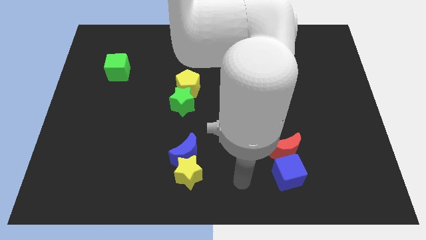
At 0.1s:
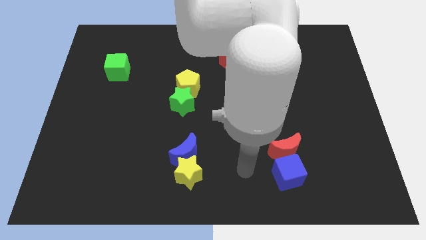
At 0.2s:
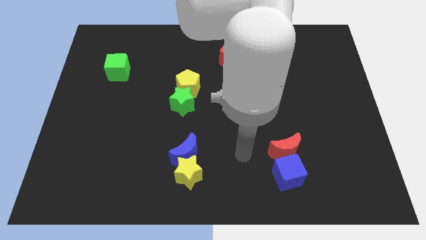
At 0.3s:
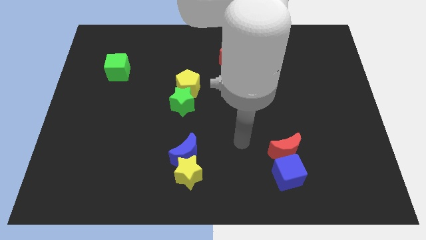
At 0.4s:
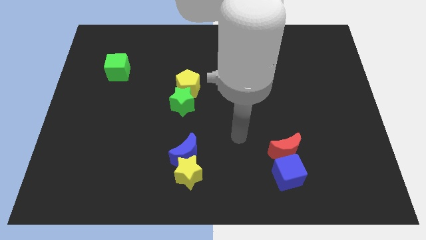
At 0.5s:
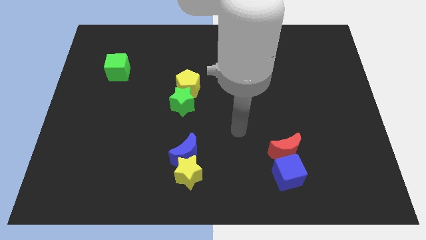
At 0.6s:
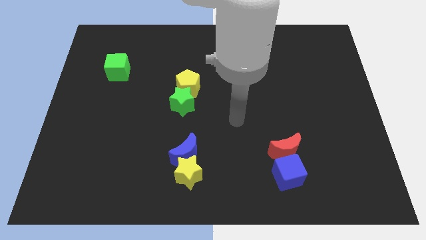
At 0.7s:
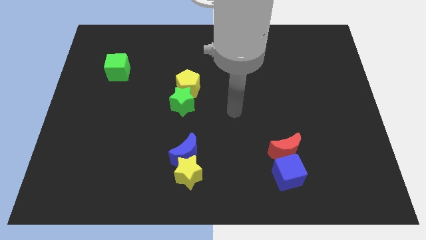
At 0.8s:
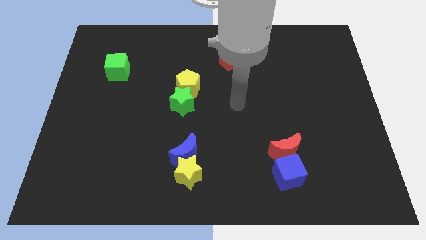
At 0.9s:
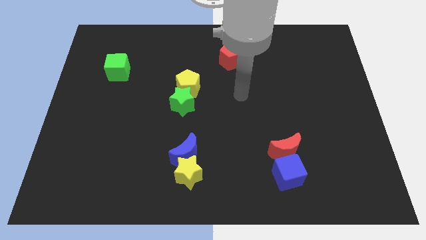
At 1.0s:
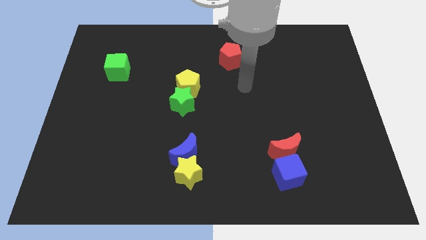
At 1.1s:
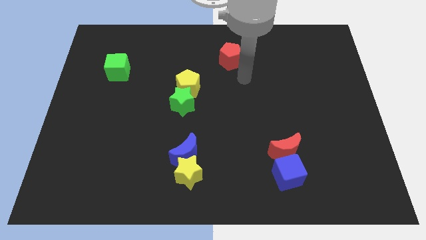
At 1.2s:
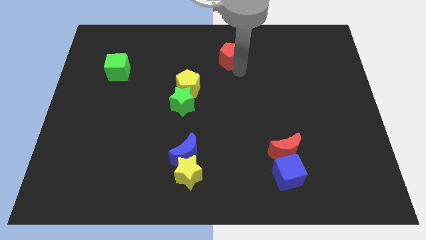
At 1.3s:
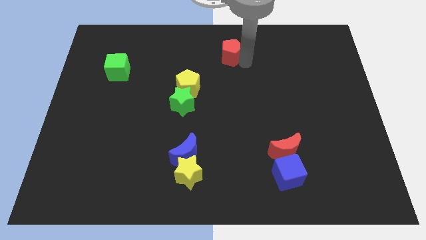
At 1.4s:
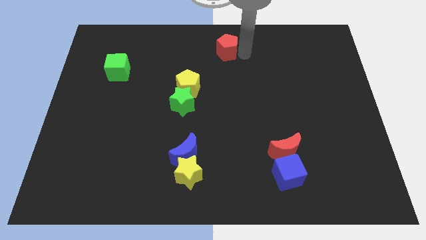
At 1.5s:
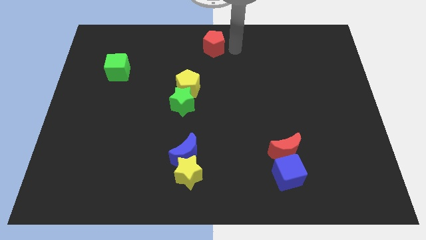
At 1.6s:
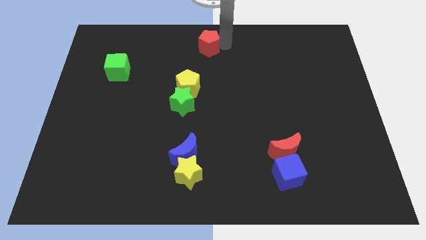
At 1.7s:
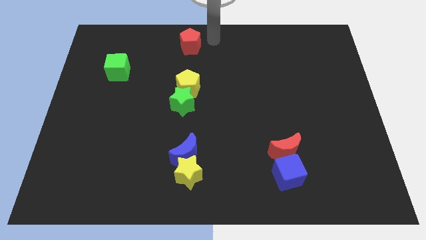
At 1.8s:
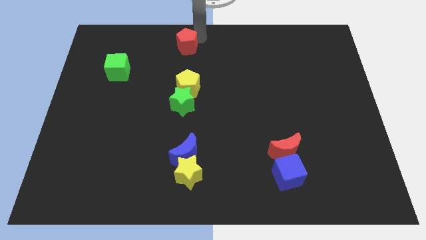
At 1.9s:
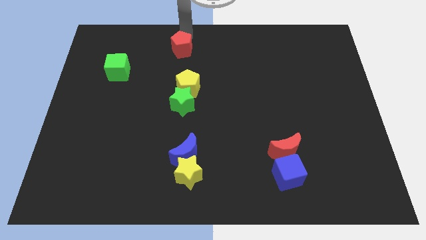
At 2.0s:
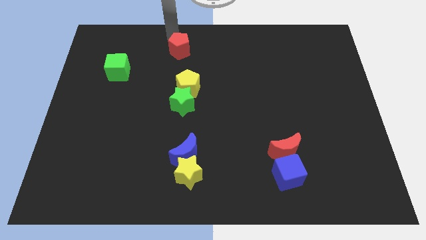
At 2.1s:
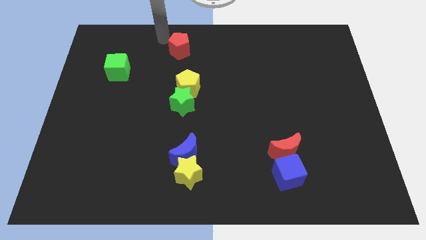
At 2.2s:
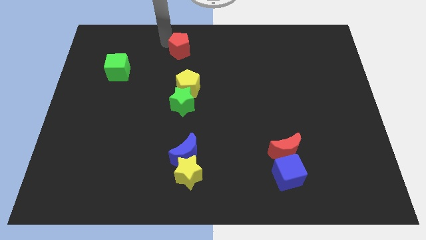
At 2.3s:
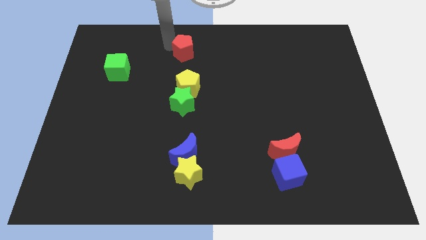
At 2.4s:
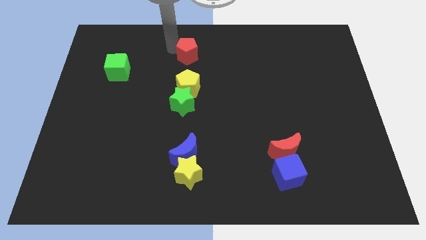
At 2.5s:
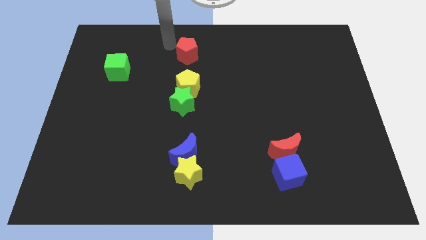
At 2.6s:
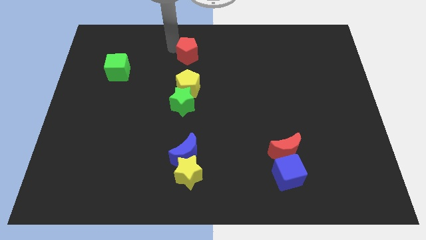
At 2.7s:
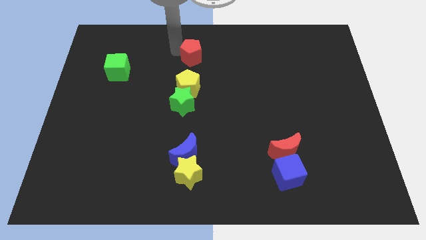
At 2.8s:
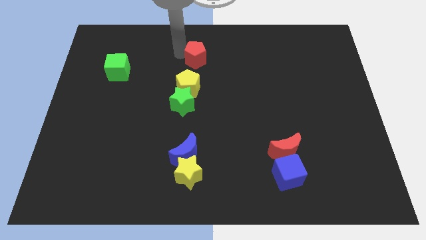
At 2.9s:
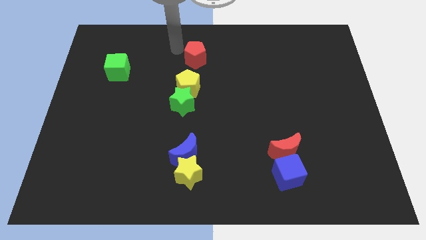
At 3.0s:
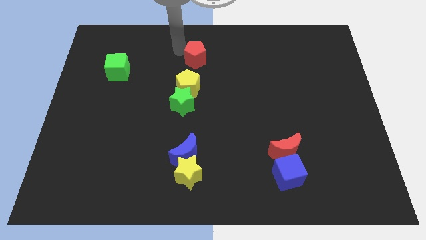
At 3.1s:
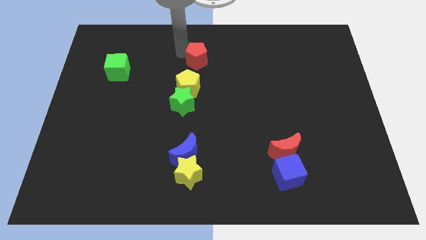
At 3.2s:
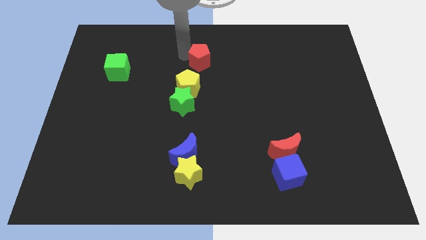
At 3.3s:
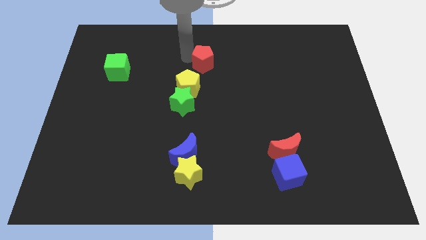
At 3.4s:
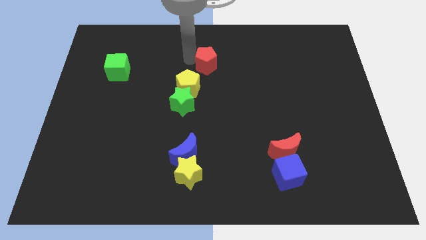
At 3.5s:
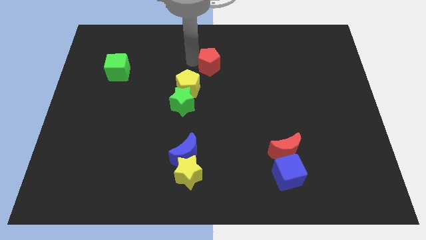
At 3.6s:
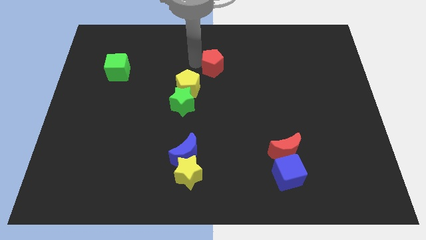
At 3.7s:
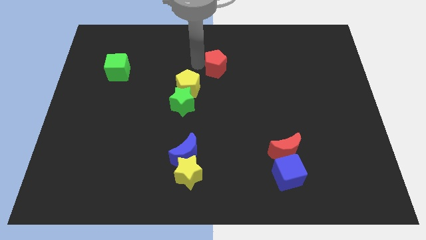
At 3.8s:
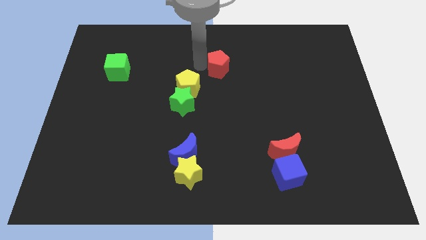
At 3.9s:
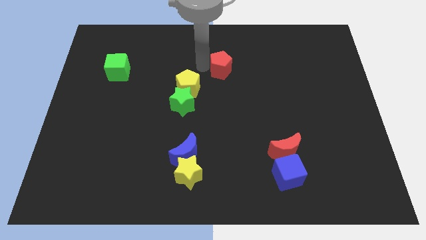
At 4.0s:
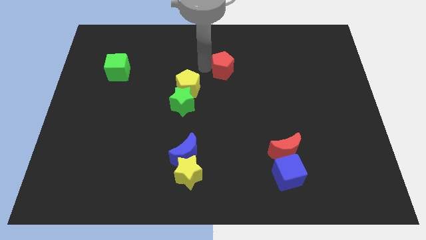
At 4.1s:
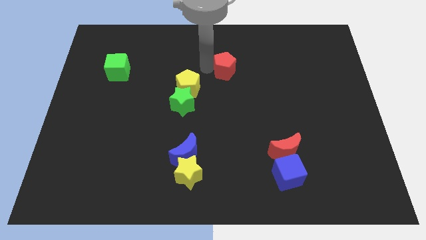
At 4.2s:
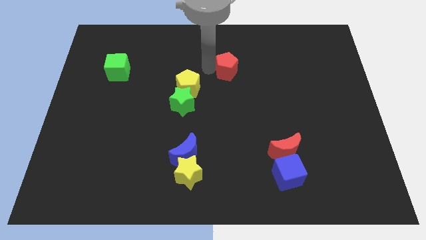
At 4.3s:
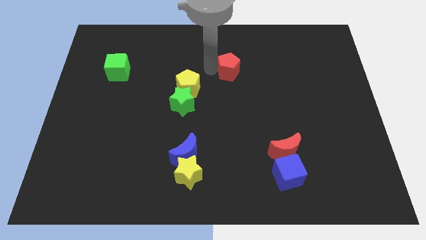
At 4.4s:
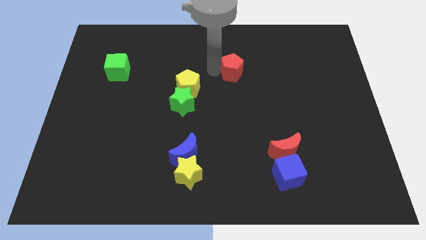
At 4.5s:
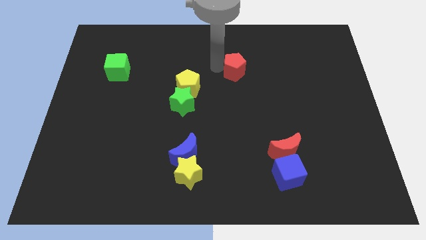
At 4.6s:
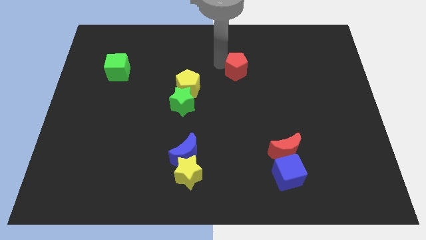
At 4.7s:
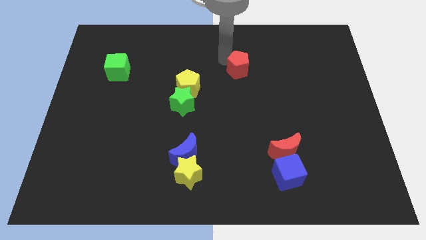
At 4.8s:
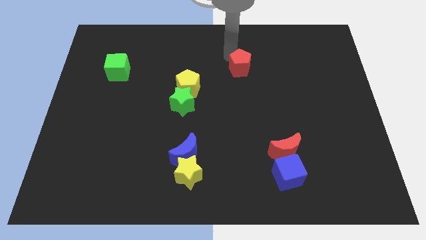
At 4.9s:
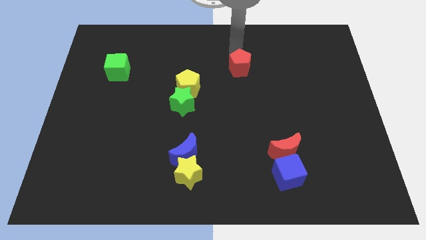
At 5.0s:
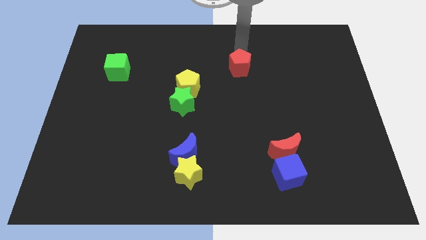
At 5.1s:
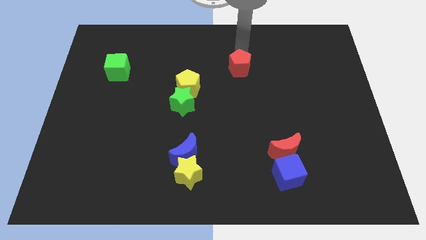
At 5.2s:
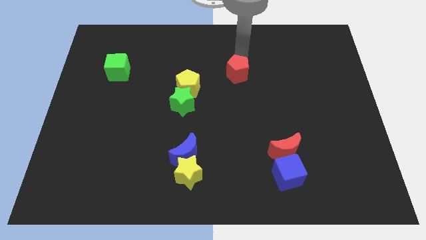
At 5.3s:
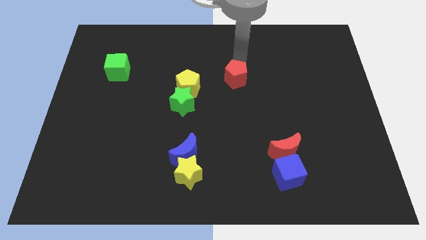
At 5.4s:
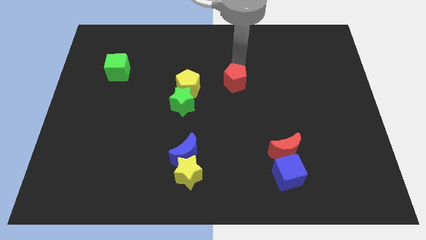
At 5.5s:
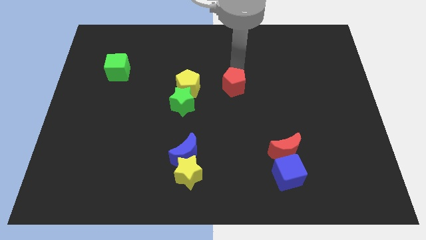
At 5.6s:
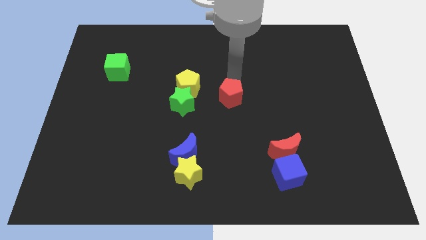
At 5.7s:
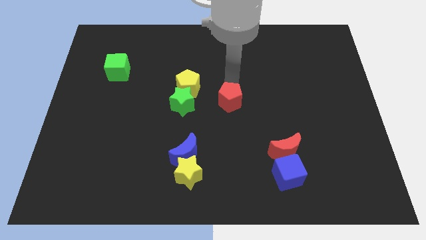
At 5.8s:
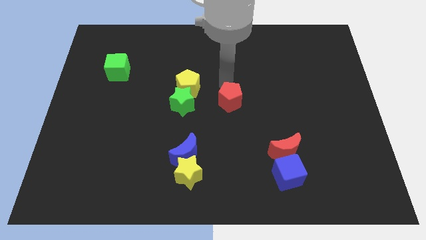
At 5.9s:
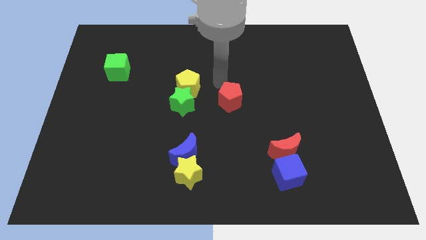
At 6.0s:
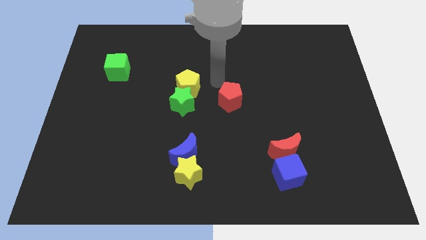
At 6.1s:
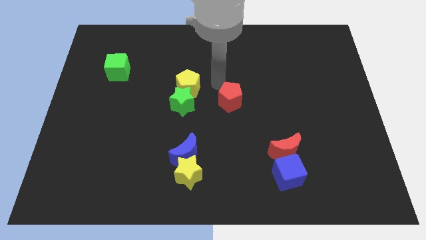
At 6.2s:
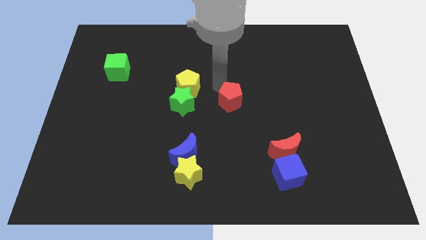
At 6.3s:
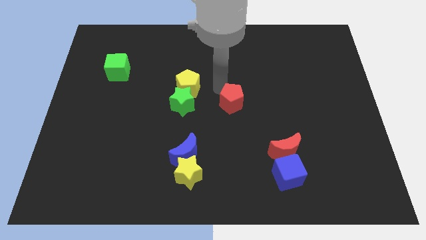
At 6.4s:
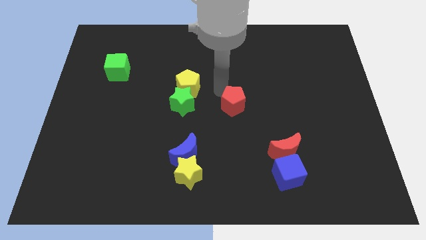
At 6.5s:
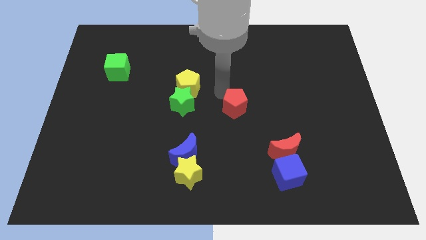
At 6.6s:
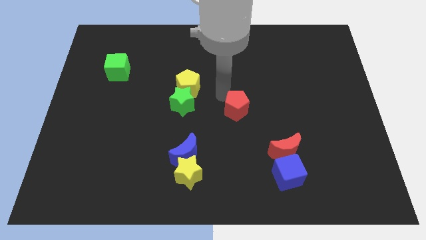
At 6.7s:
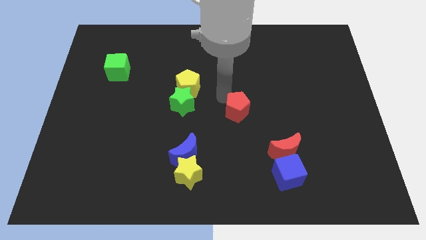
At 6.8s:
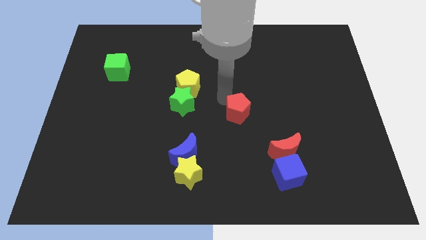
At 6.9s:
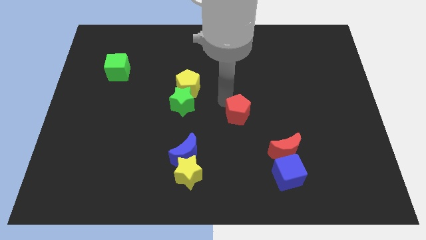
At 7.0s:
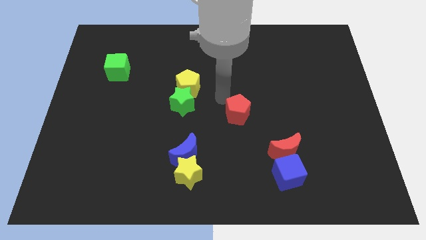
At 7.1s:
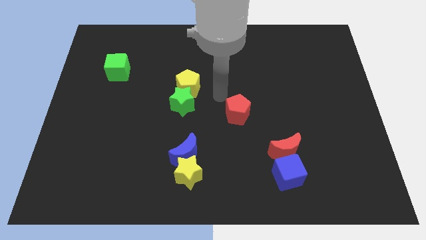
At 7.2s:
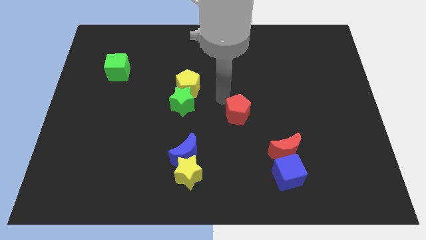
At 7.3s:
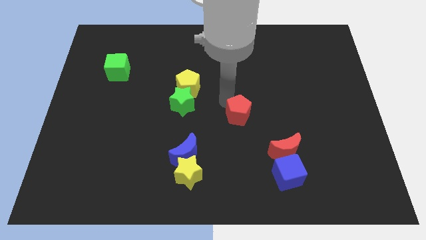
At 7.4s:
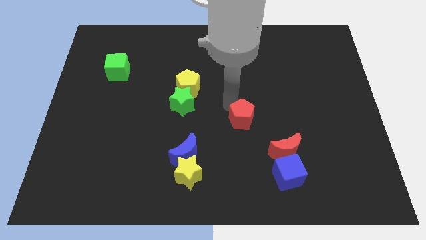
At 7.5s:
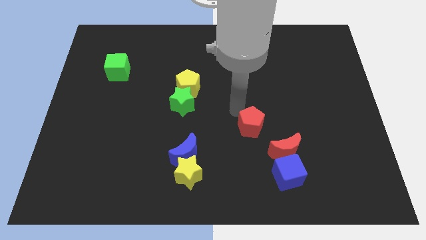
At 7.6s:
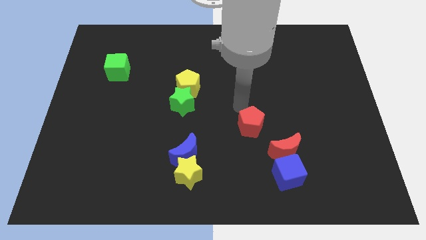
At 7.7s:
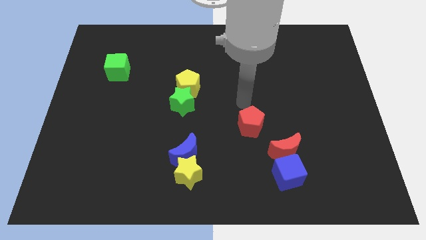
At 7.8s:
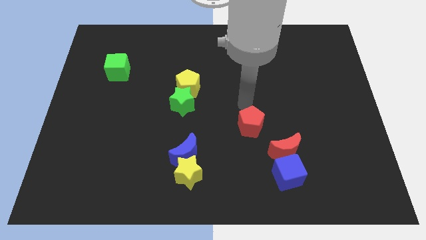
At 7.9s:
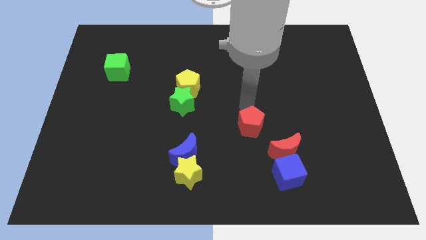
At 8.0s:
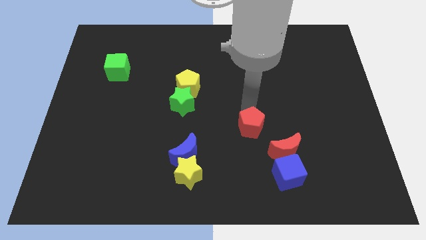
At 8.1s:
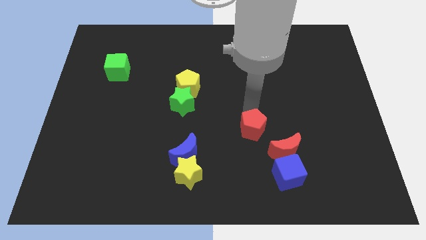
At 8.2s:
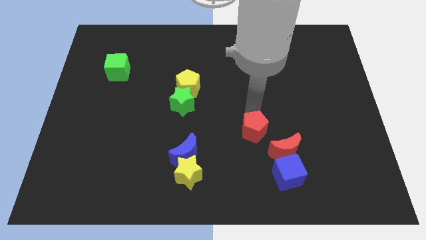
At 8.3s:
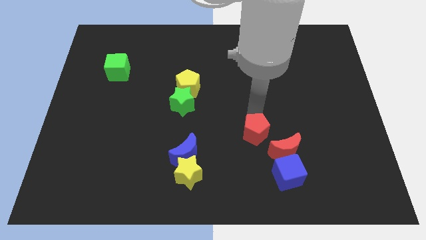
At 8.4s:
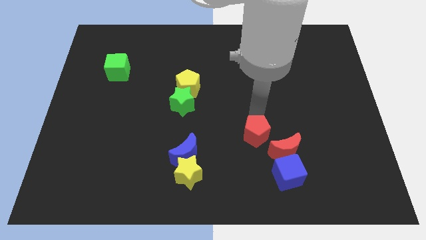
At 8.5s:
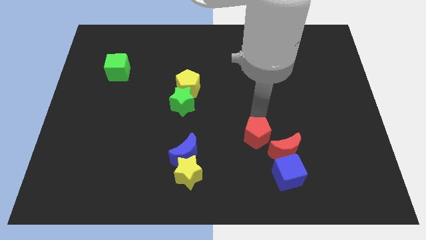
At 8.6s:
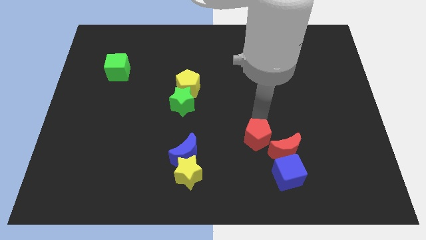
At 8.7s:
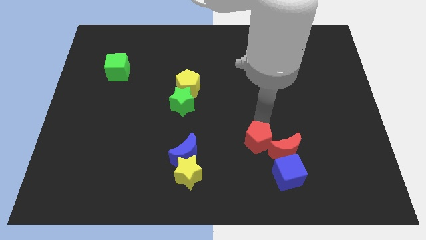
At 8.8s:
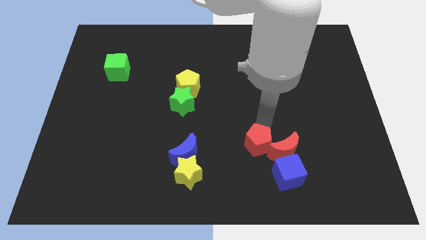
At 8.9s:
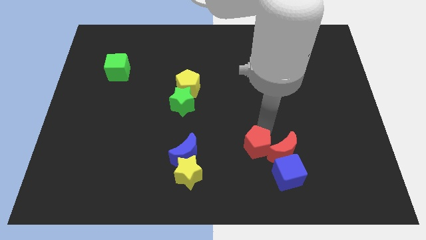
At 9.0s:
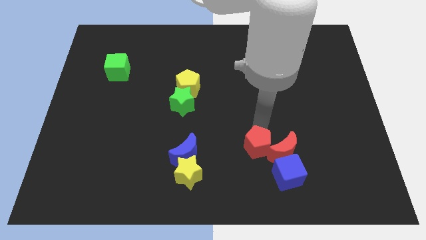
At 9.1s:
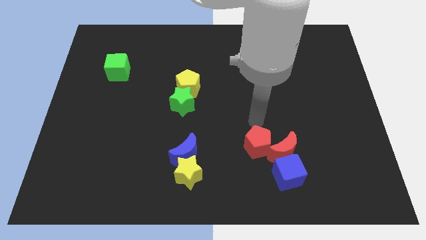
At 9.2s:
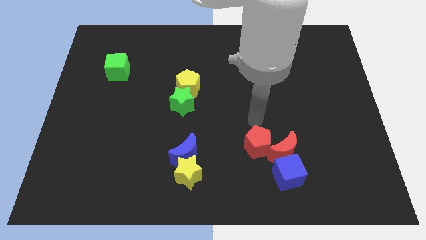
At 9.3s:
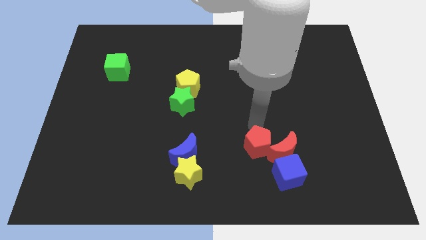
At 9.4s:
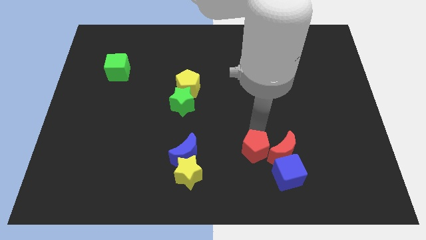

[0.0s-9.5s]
push the red pentagon diagonally down and to the left of the red moon
